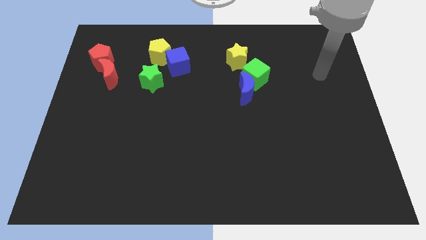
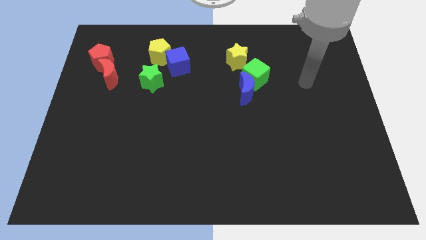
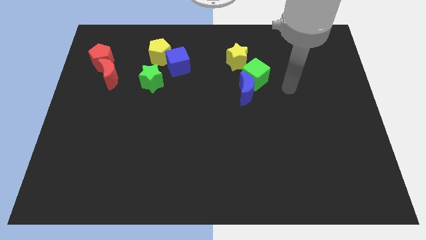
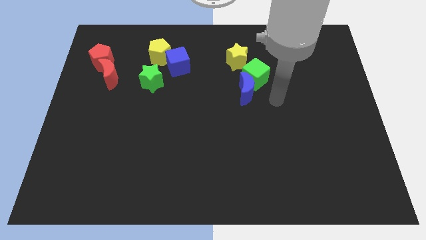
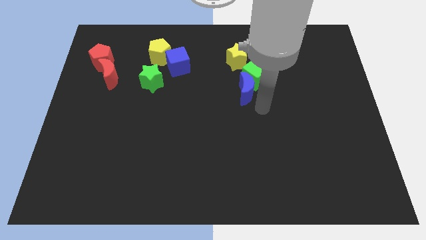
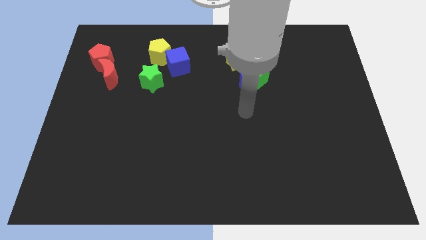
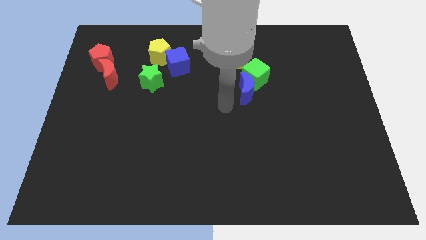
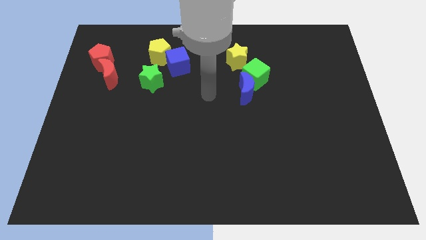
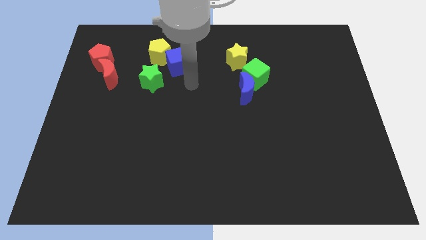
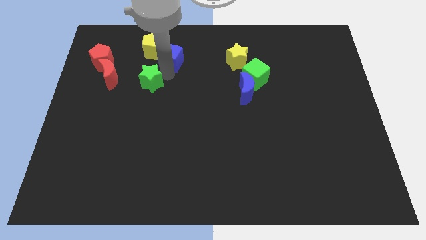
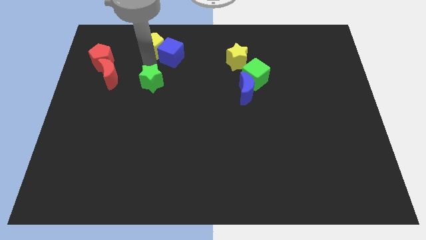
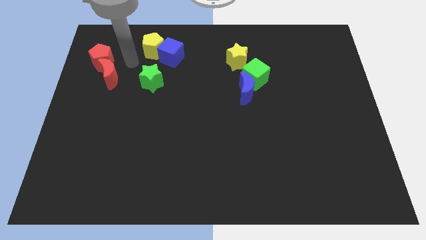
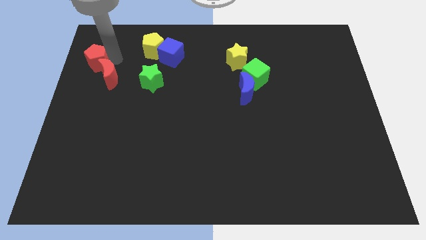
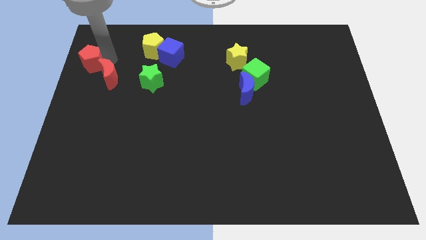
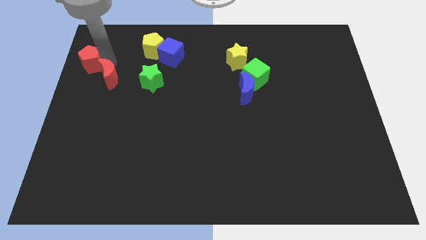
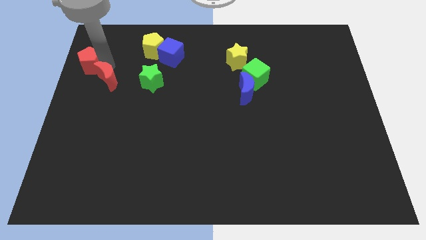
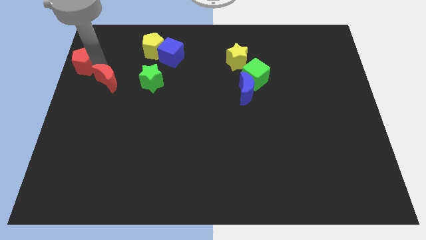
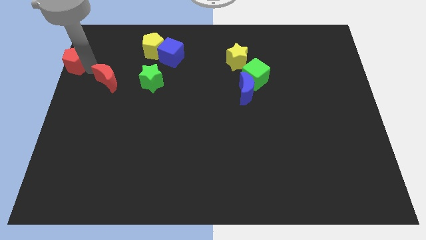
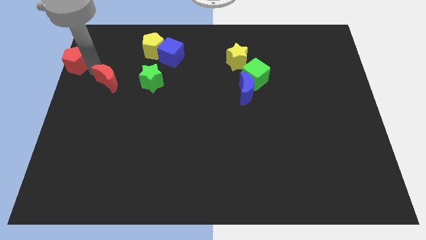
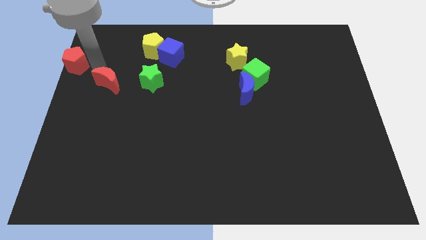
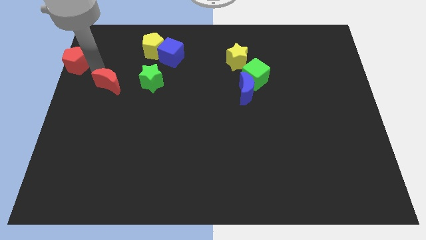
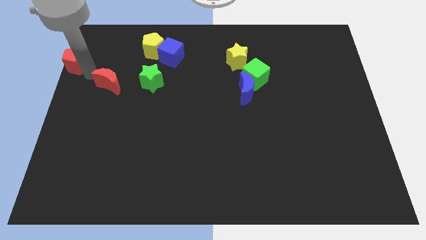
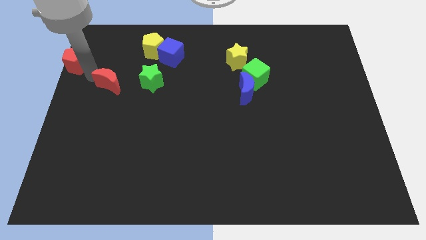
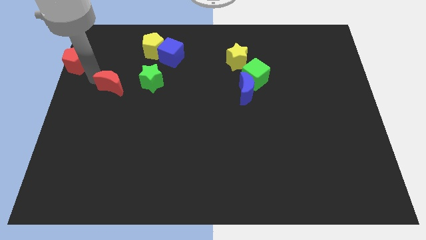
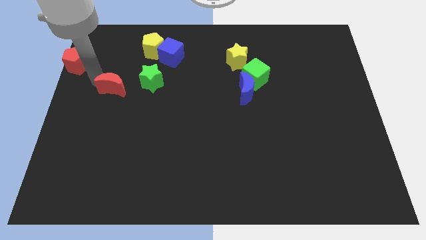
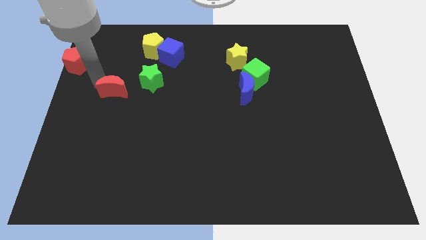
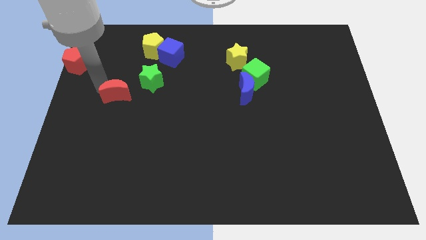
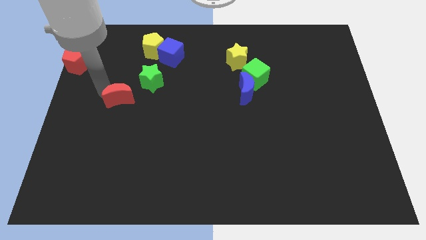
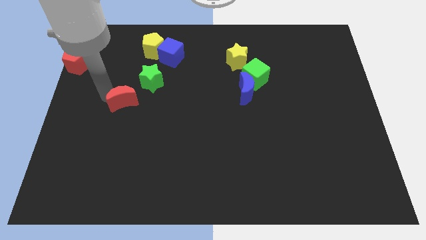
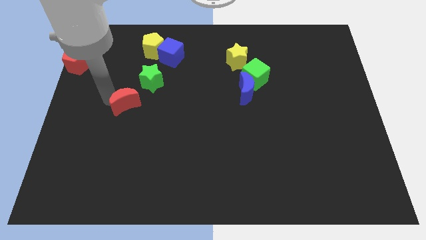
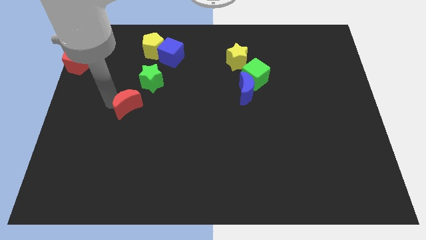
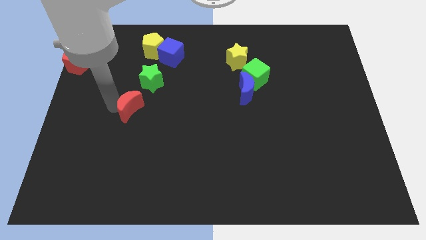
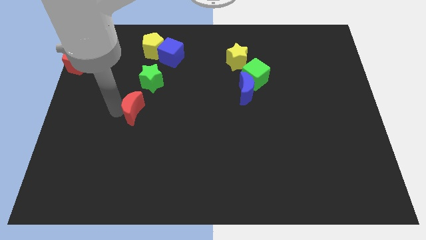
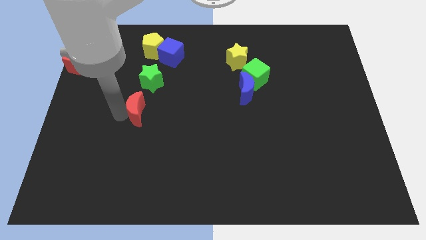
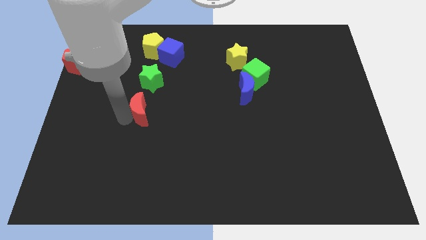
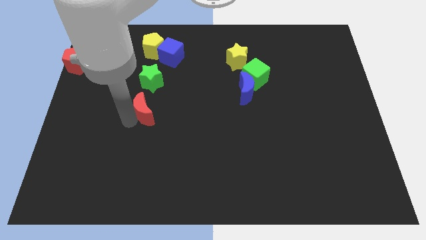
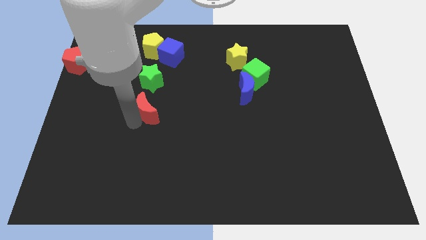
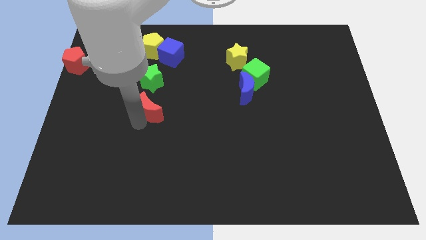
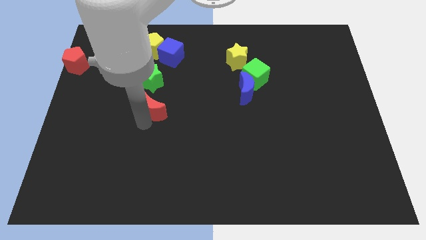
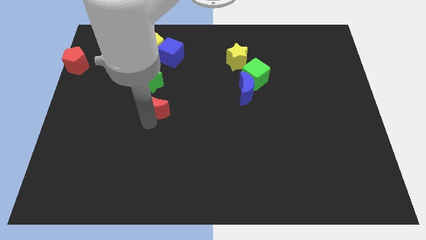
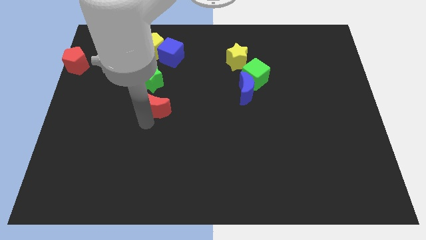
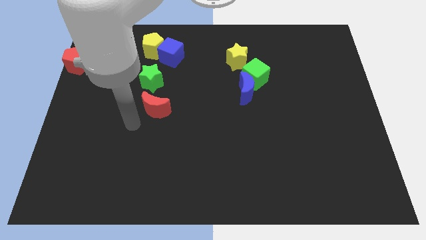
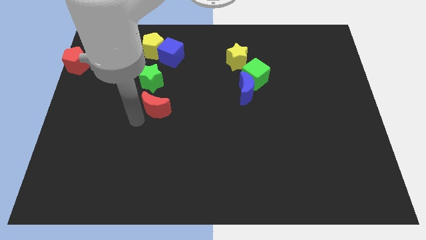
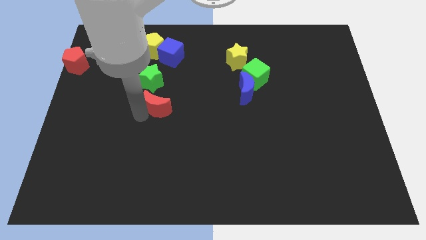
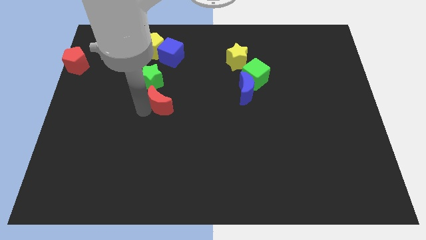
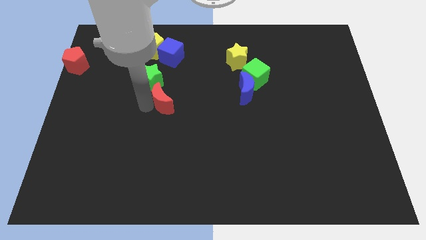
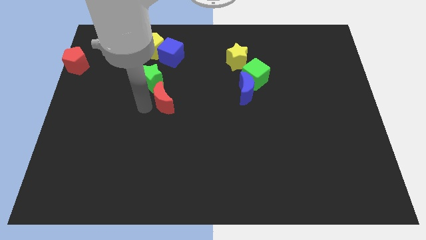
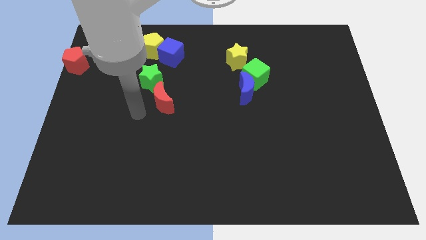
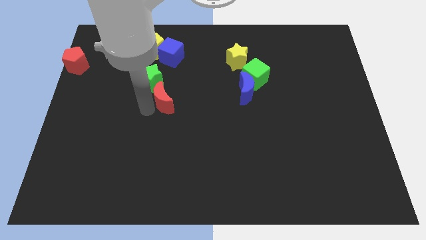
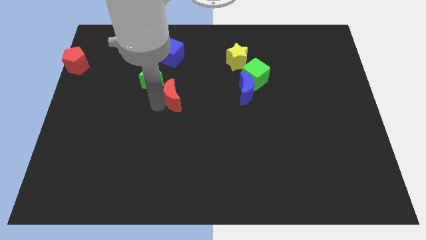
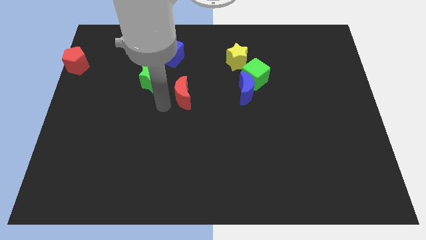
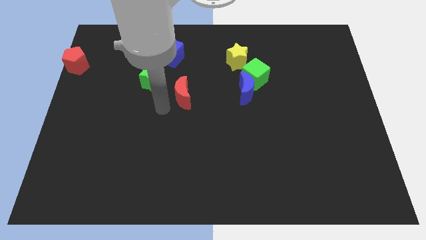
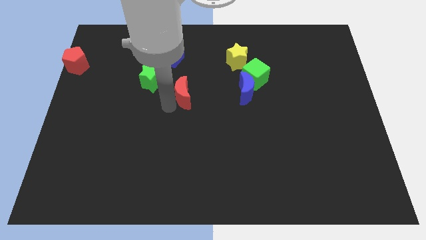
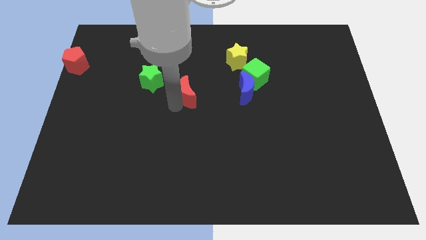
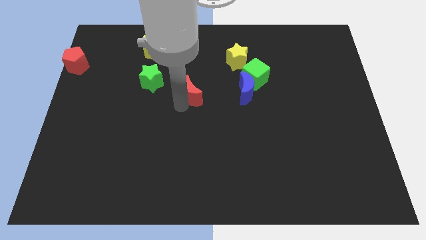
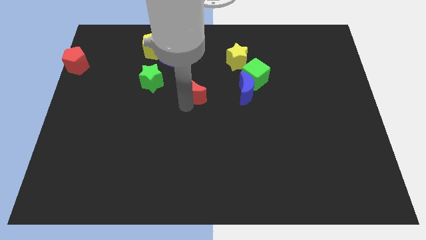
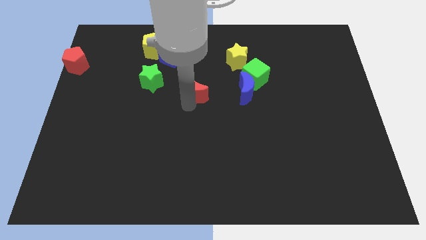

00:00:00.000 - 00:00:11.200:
push the red moon right

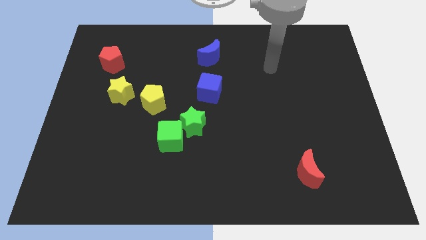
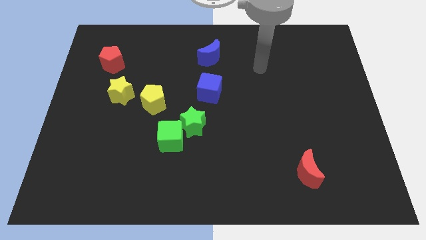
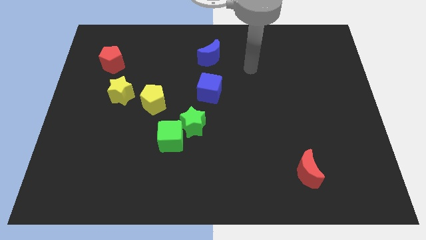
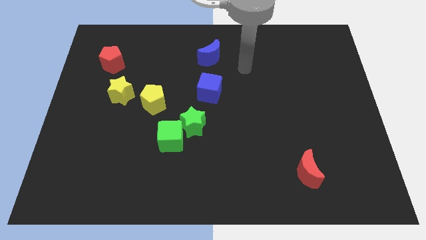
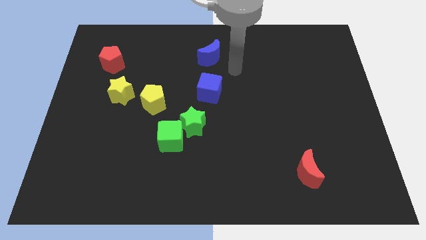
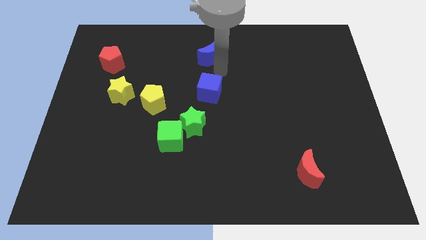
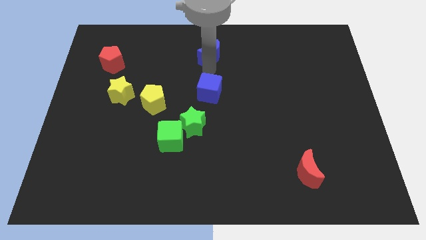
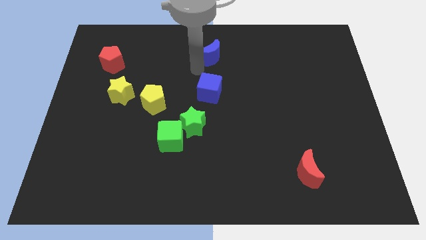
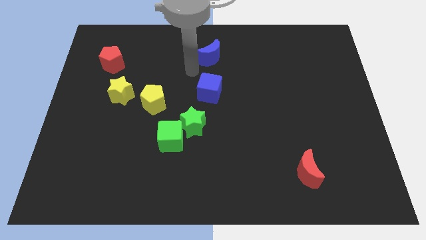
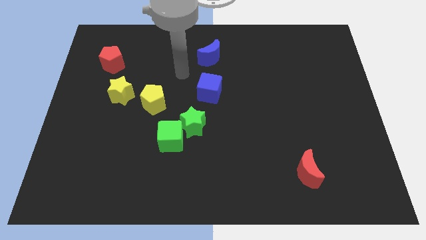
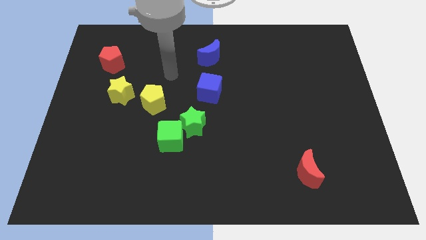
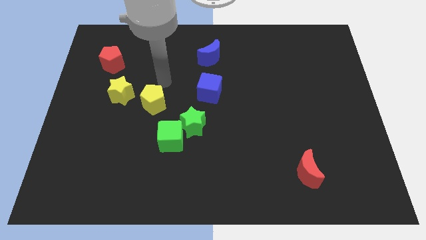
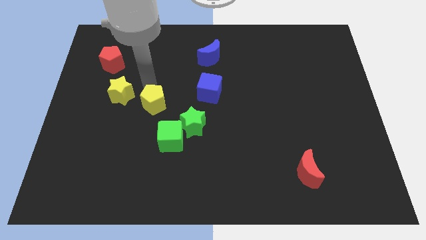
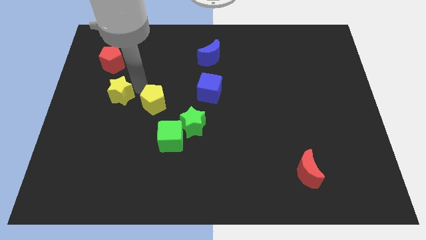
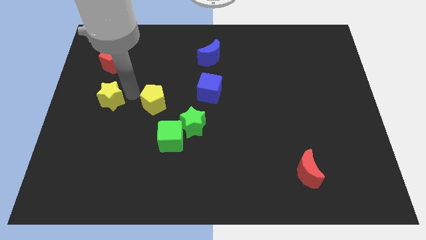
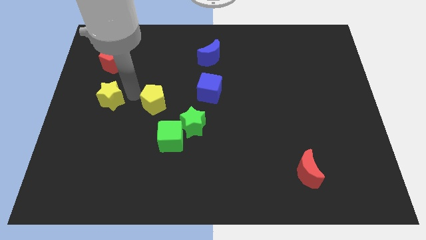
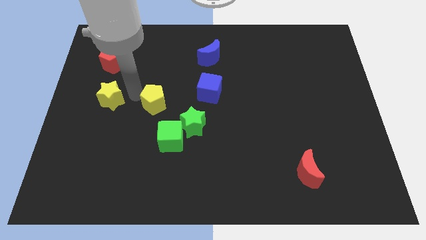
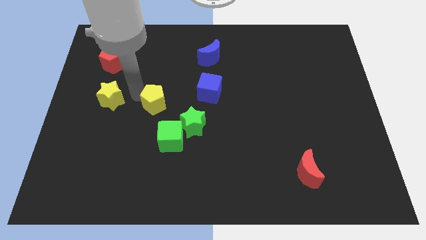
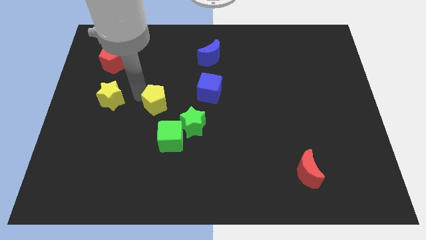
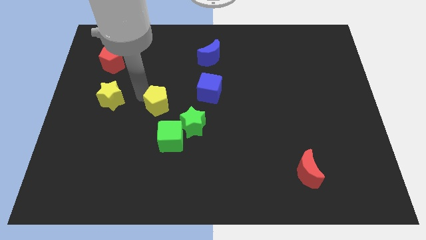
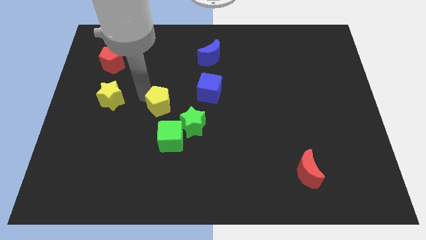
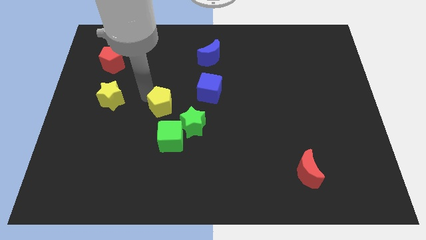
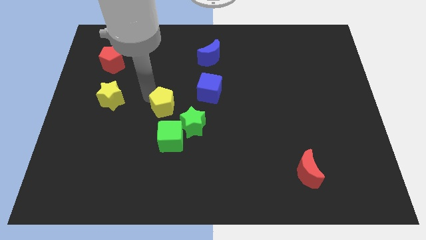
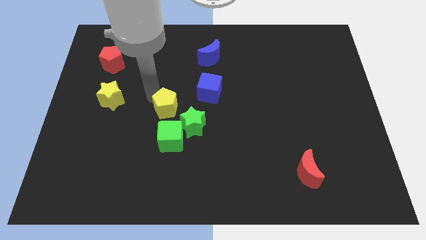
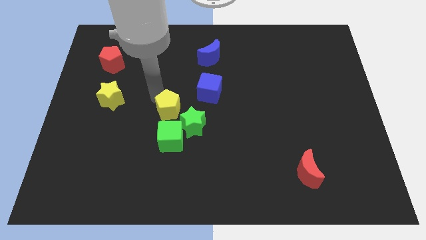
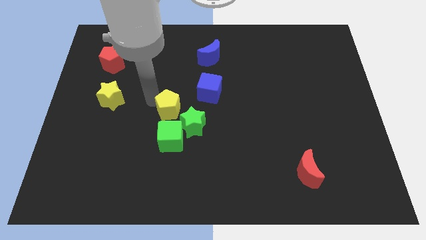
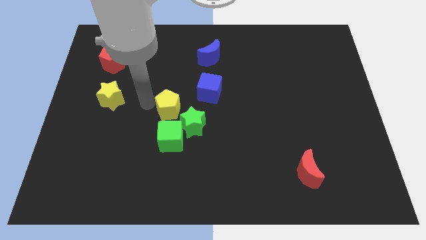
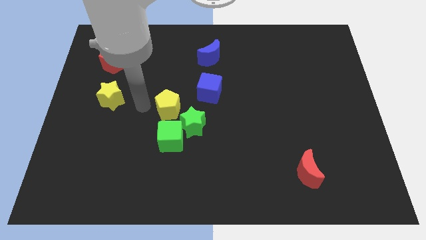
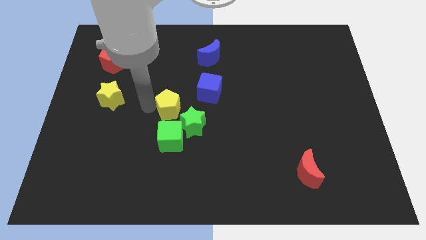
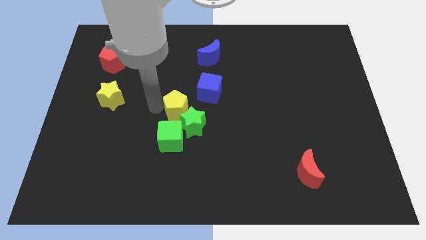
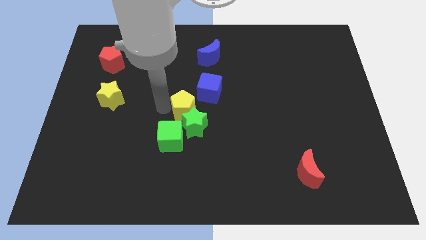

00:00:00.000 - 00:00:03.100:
push the yellow pentagon right a little
